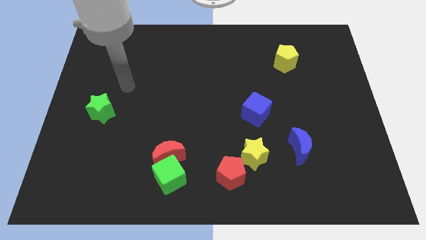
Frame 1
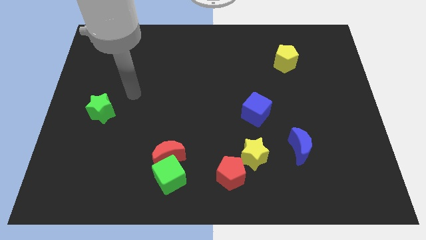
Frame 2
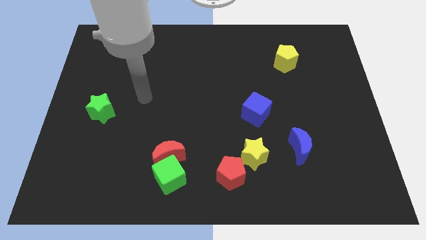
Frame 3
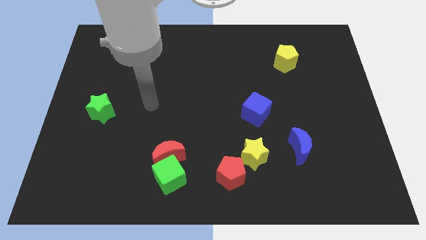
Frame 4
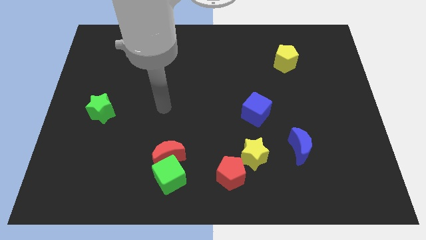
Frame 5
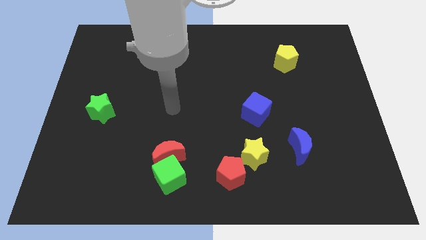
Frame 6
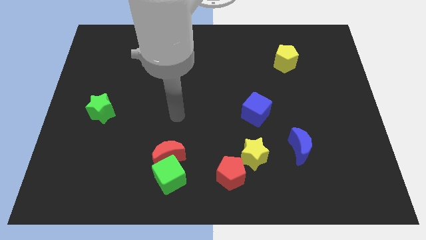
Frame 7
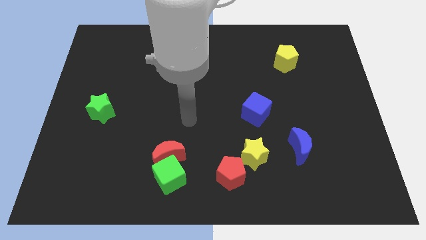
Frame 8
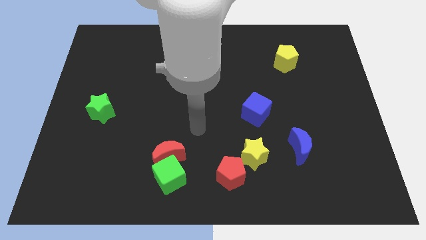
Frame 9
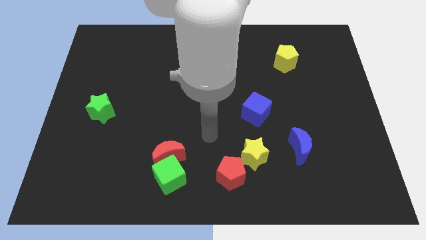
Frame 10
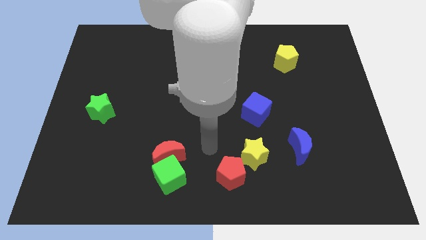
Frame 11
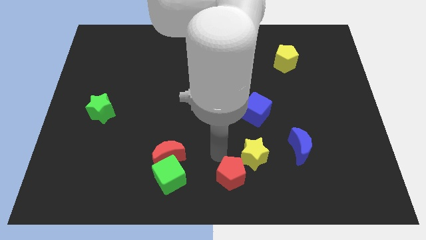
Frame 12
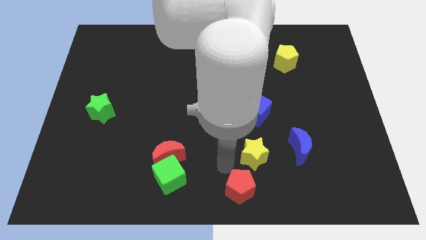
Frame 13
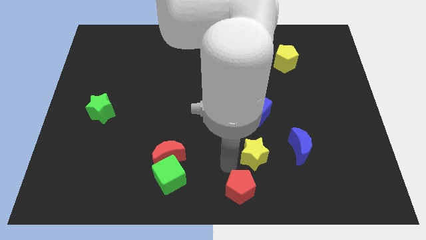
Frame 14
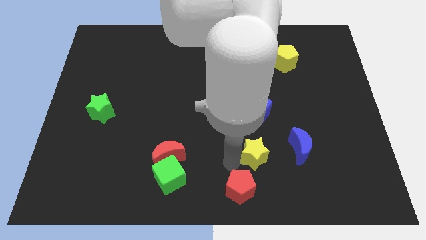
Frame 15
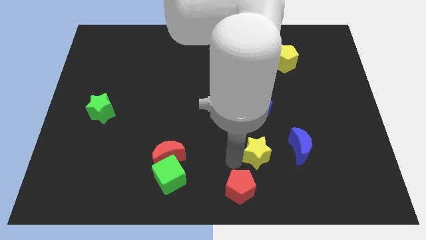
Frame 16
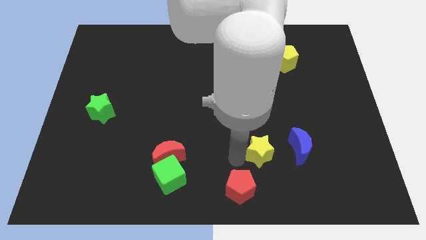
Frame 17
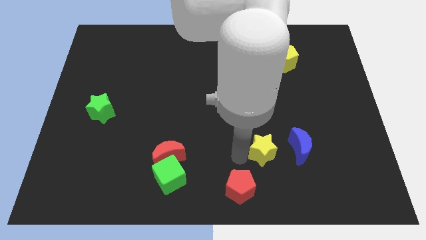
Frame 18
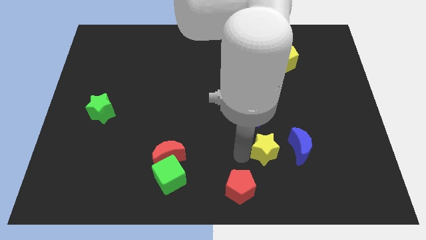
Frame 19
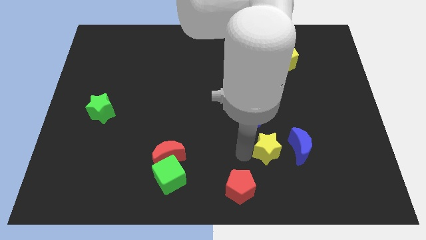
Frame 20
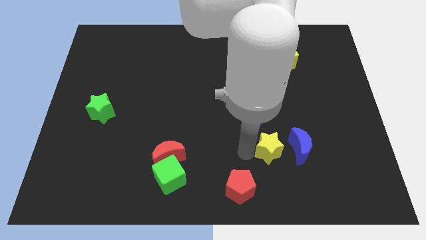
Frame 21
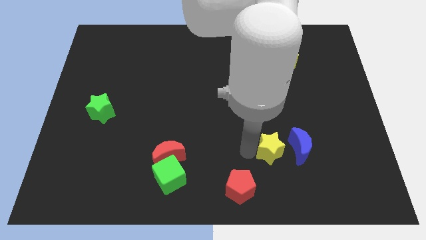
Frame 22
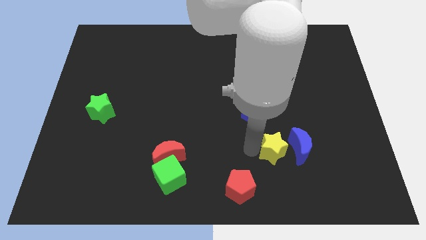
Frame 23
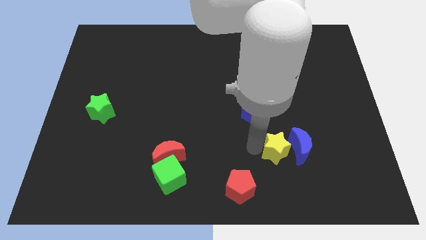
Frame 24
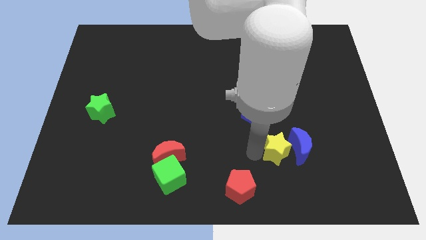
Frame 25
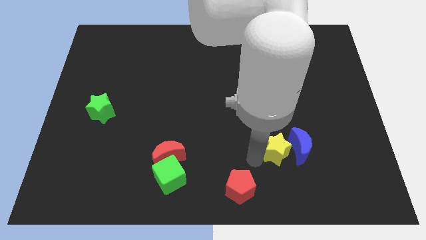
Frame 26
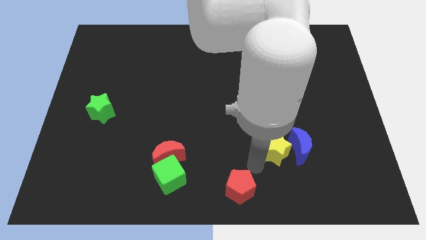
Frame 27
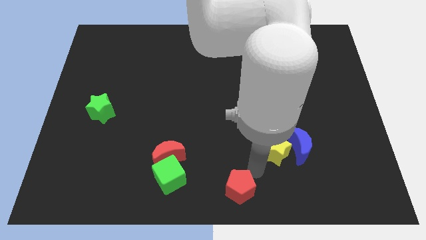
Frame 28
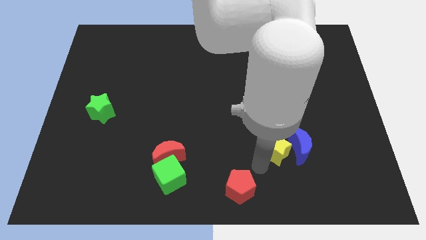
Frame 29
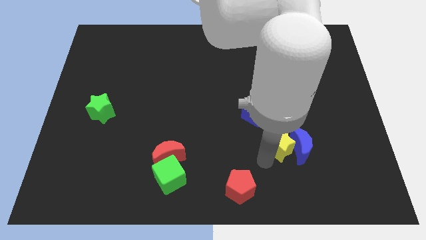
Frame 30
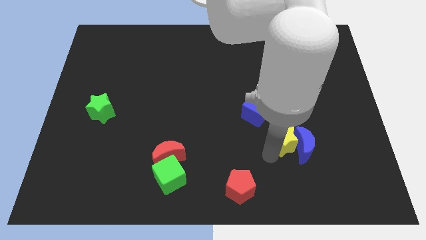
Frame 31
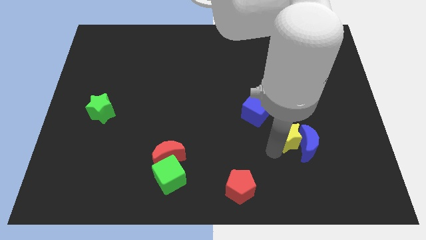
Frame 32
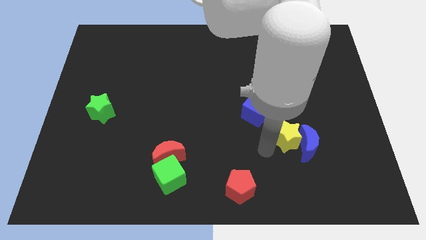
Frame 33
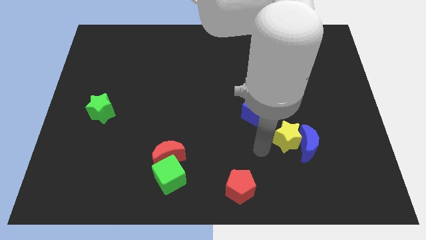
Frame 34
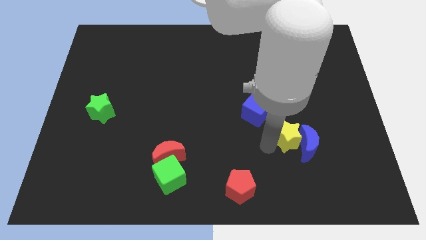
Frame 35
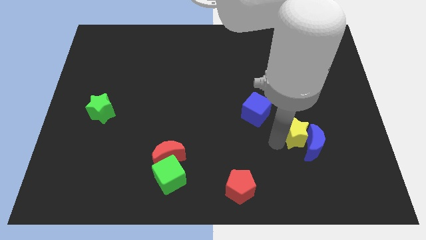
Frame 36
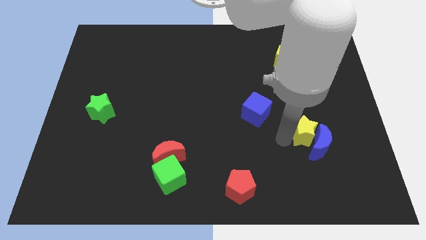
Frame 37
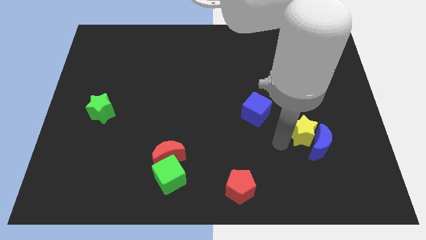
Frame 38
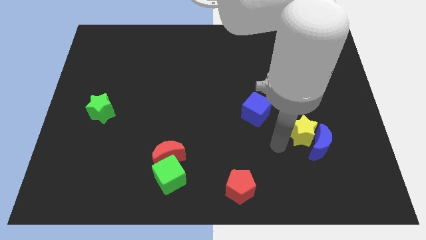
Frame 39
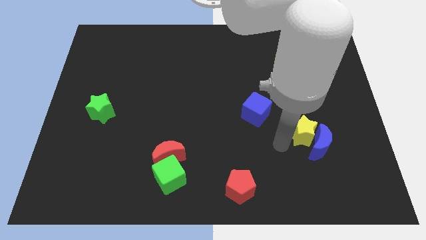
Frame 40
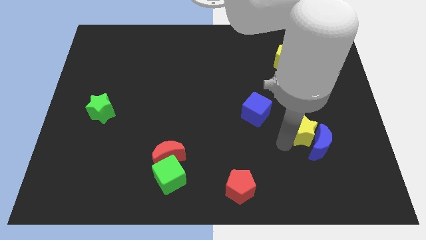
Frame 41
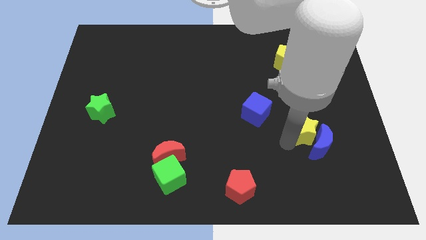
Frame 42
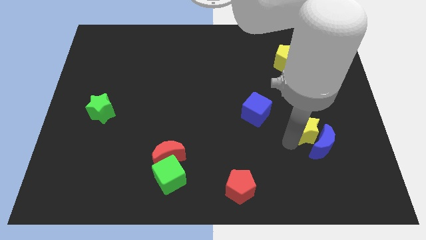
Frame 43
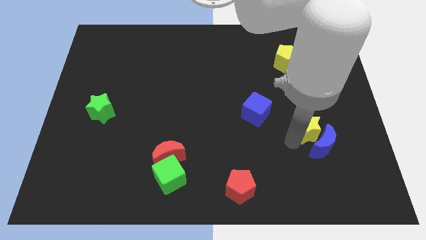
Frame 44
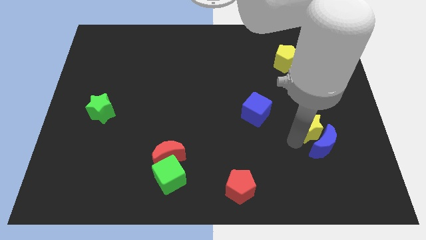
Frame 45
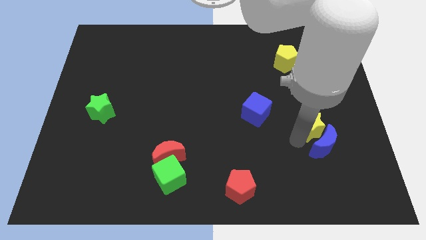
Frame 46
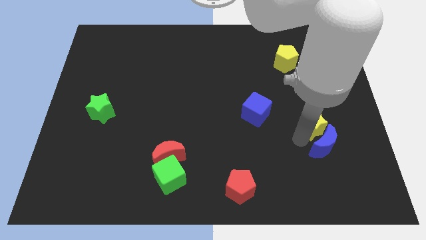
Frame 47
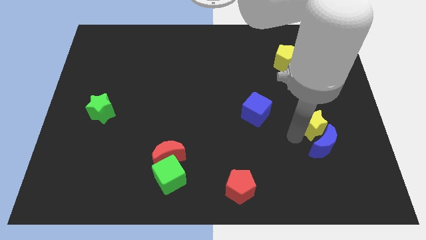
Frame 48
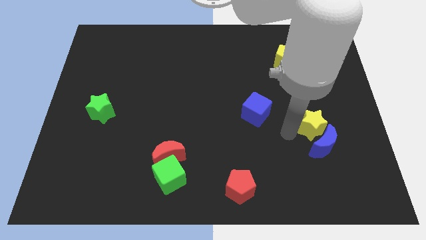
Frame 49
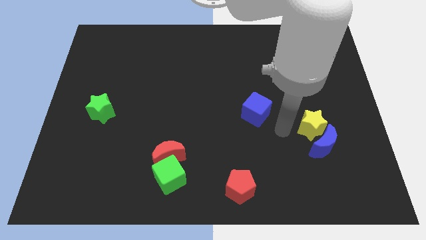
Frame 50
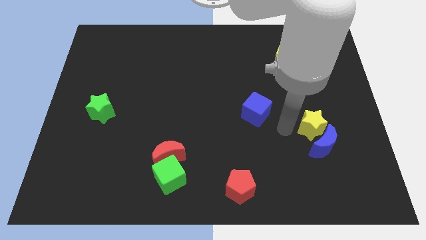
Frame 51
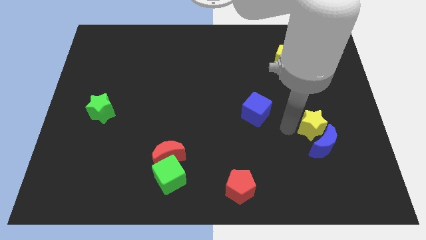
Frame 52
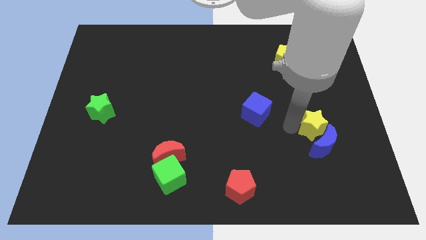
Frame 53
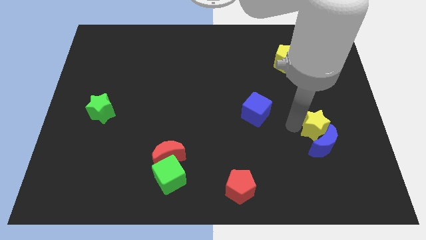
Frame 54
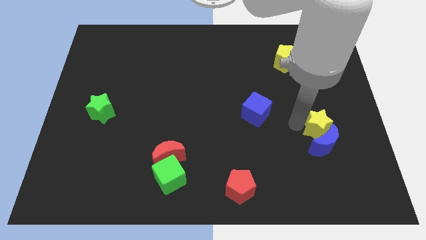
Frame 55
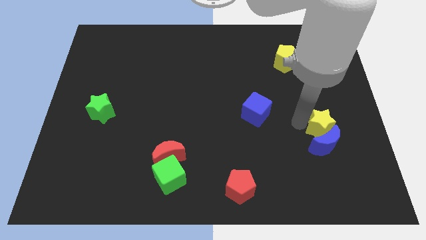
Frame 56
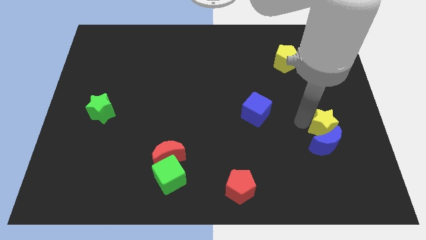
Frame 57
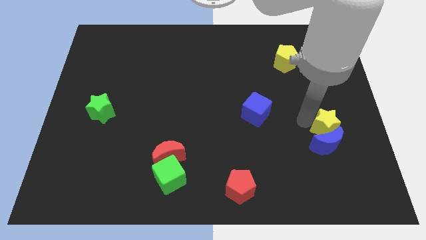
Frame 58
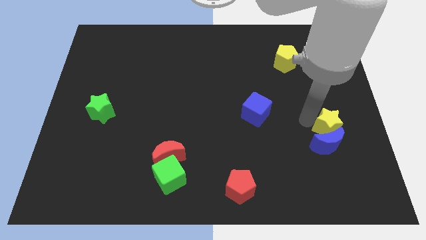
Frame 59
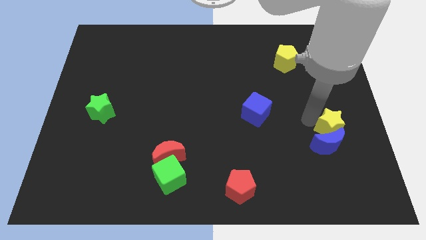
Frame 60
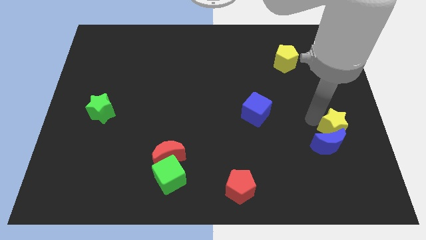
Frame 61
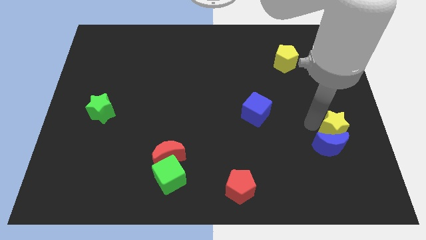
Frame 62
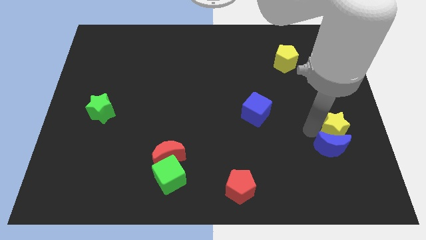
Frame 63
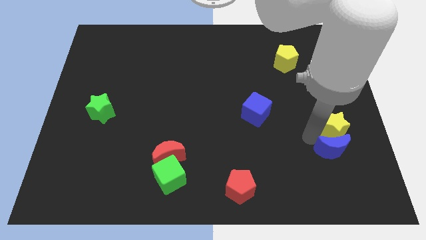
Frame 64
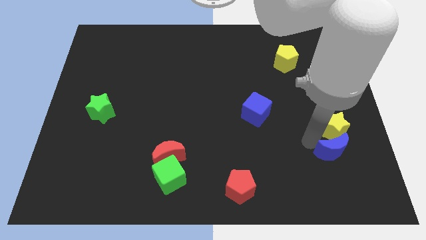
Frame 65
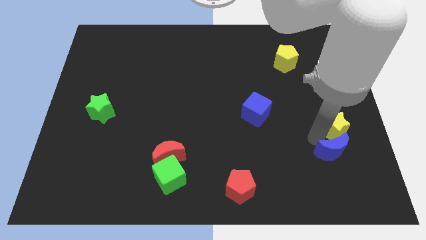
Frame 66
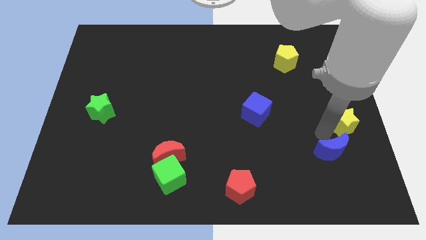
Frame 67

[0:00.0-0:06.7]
put the yellow star to the center right
